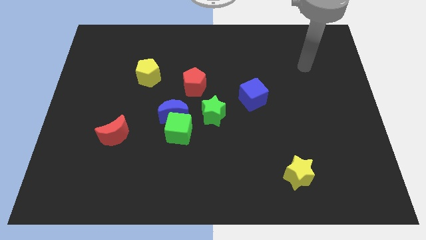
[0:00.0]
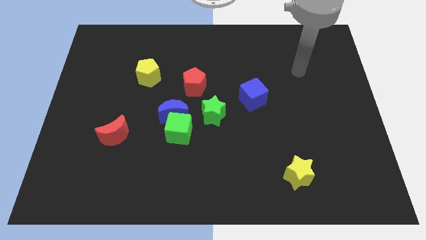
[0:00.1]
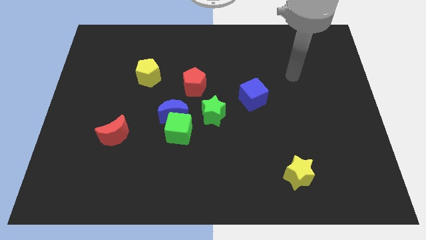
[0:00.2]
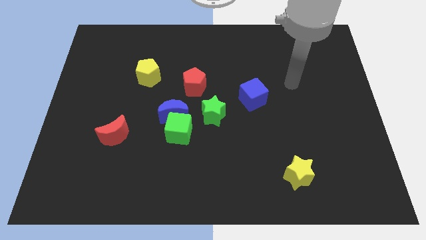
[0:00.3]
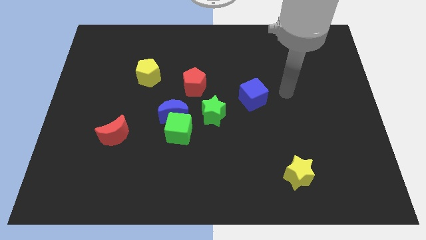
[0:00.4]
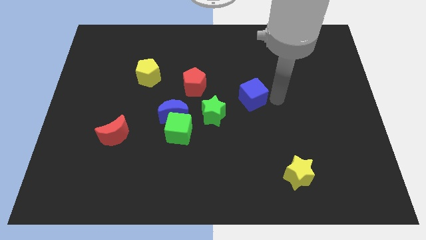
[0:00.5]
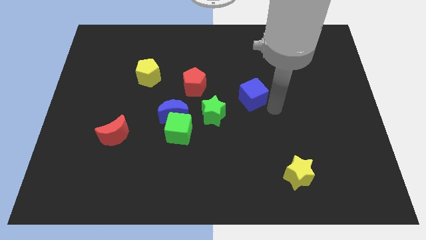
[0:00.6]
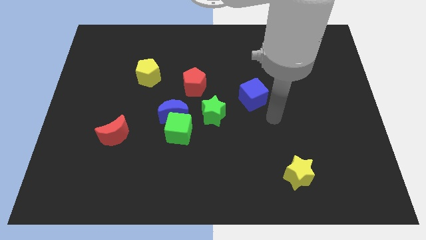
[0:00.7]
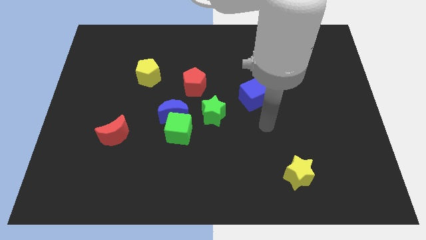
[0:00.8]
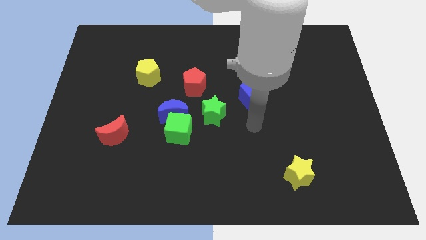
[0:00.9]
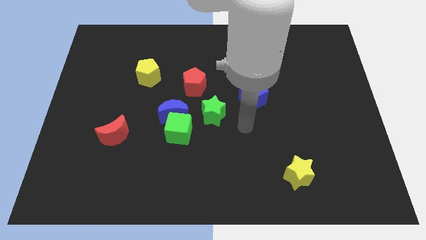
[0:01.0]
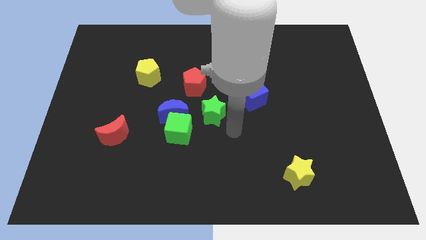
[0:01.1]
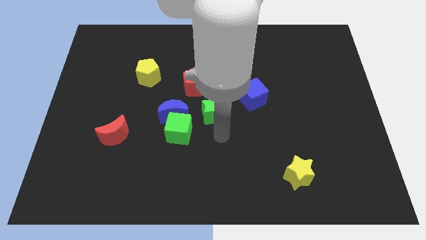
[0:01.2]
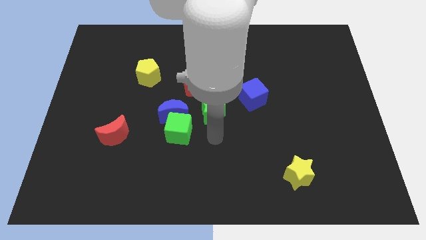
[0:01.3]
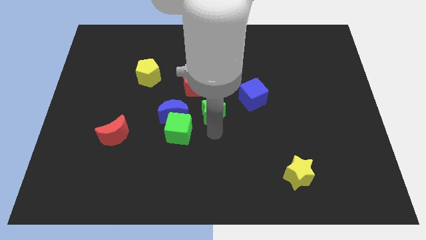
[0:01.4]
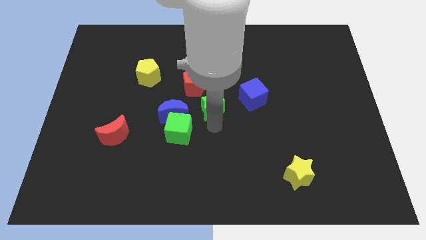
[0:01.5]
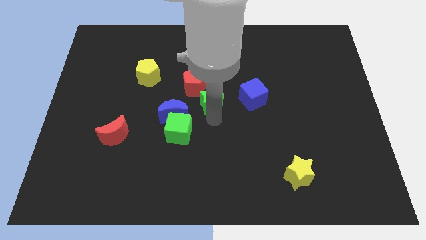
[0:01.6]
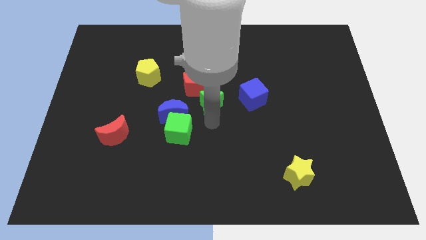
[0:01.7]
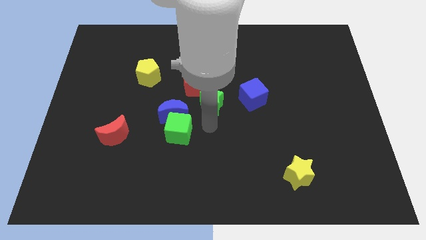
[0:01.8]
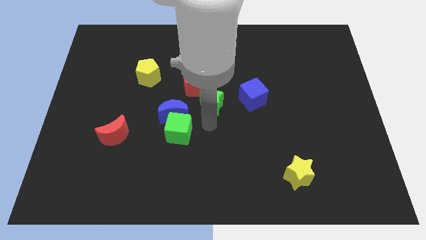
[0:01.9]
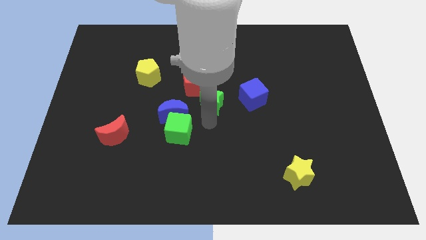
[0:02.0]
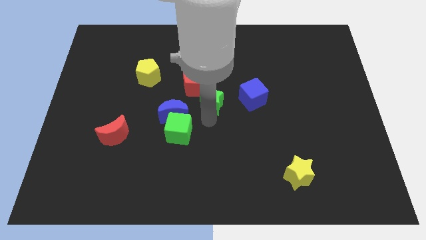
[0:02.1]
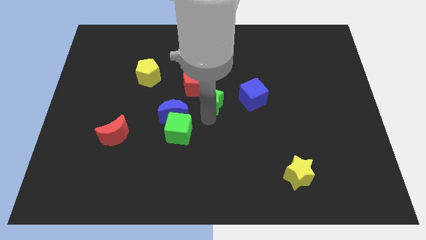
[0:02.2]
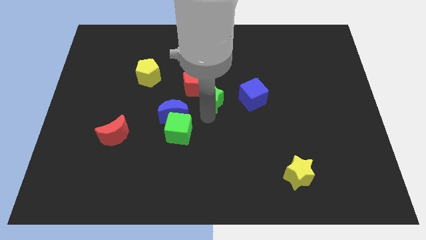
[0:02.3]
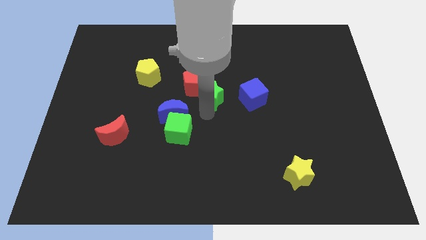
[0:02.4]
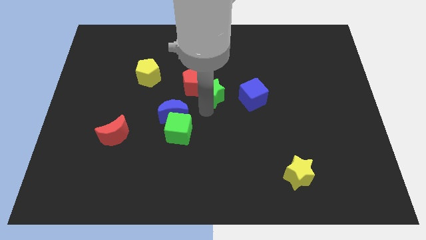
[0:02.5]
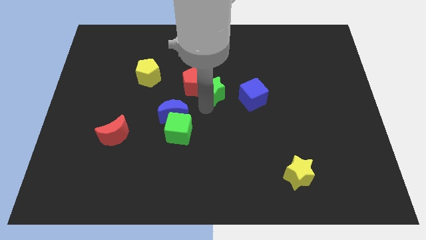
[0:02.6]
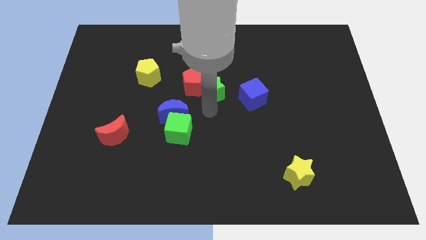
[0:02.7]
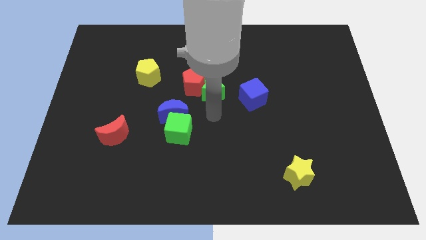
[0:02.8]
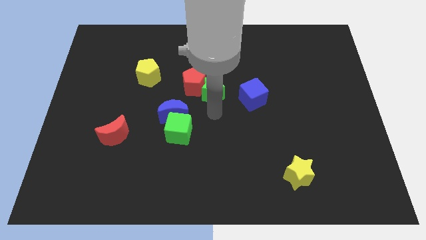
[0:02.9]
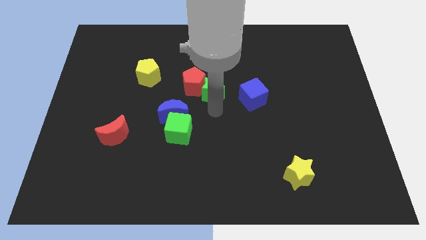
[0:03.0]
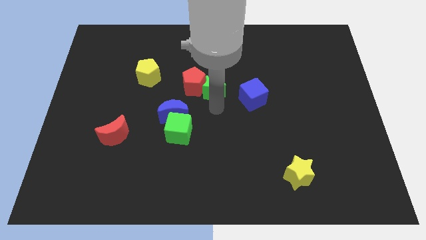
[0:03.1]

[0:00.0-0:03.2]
move the green star upwards a little bit

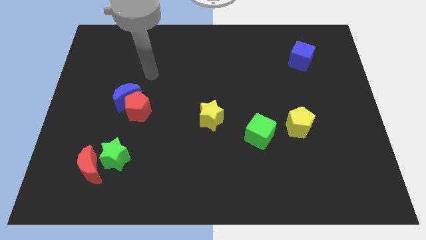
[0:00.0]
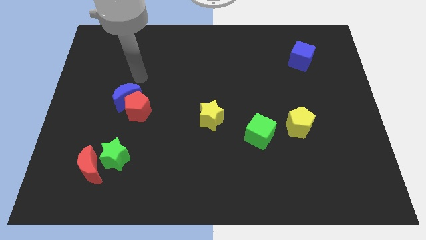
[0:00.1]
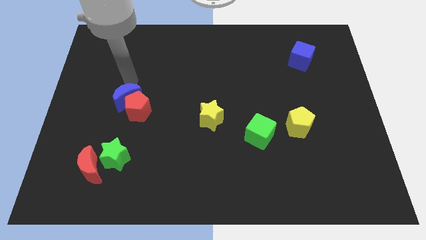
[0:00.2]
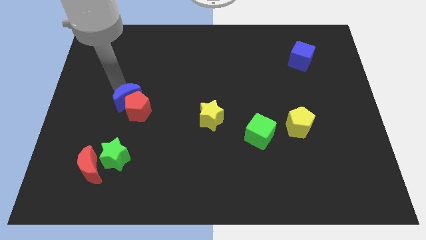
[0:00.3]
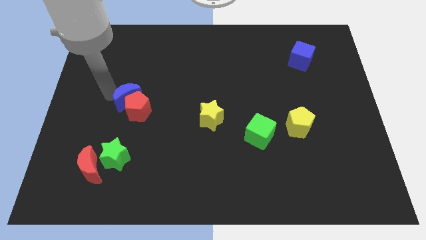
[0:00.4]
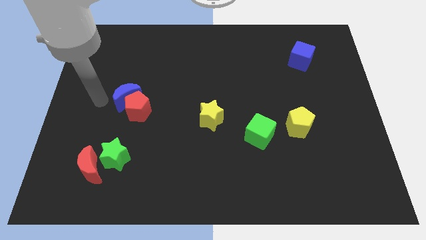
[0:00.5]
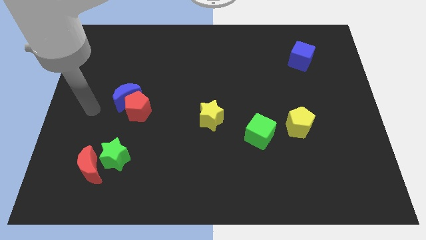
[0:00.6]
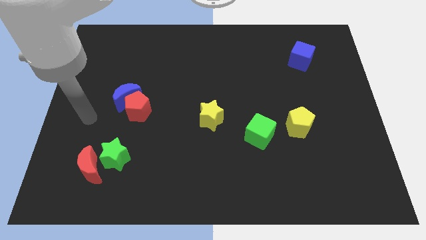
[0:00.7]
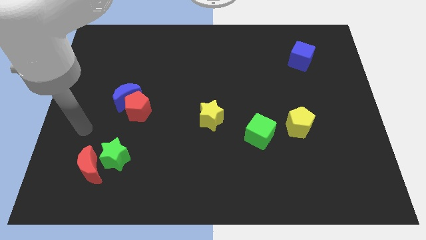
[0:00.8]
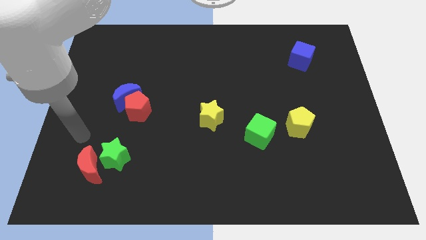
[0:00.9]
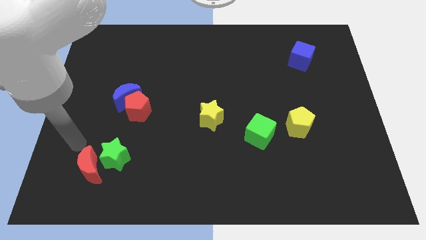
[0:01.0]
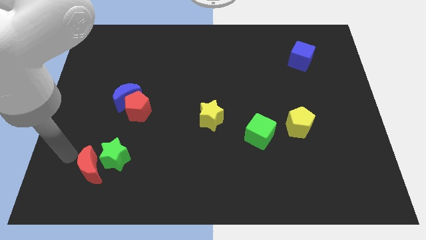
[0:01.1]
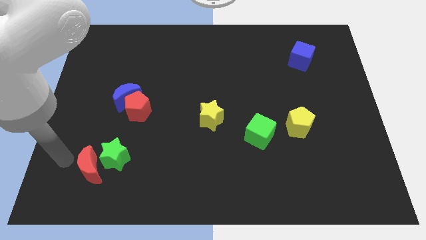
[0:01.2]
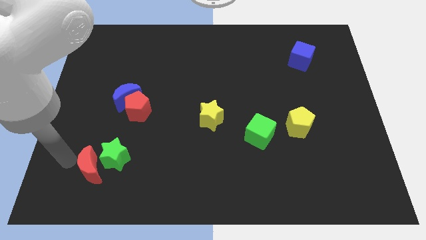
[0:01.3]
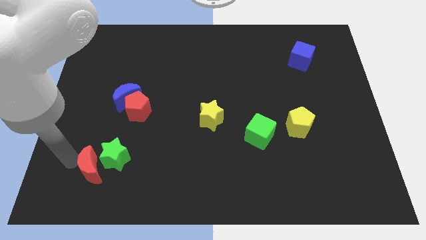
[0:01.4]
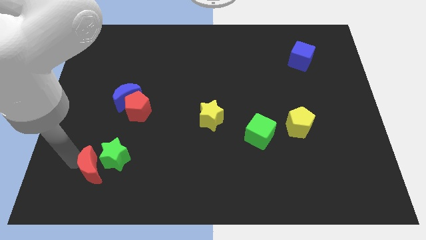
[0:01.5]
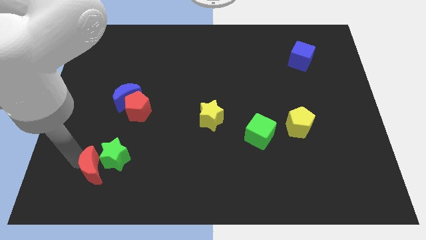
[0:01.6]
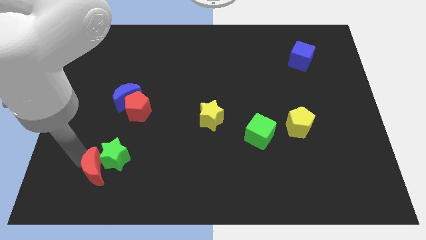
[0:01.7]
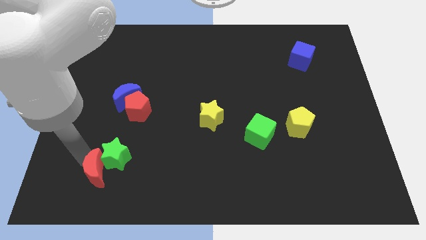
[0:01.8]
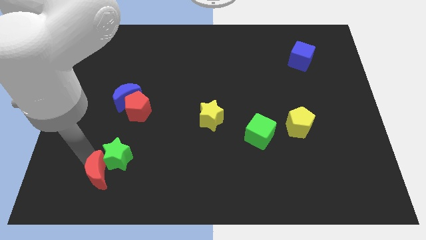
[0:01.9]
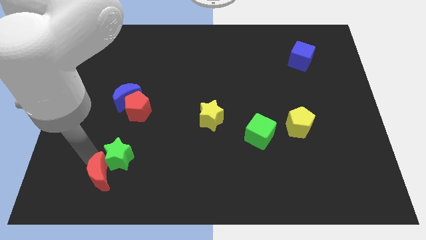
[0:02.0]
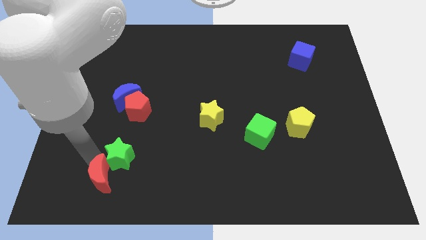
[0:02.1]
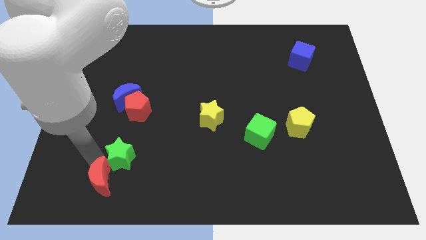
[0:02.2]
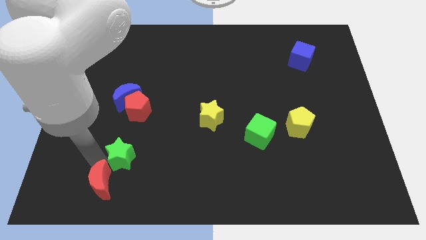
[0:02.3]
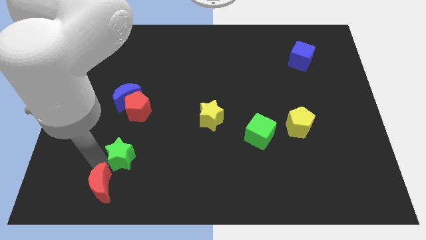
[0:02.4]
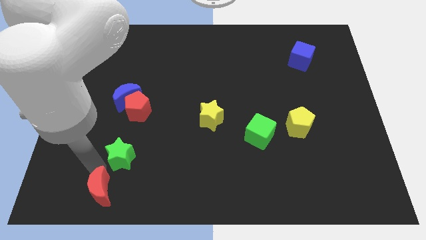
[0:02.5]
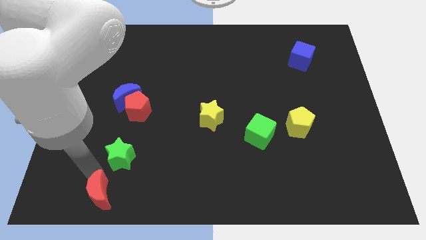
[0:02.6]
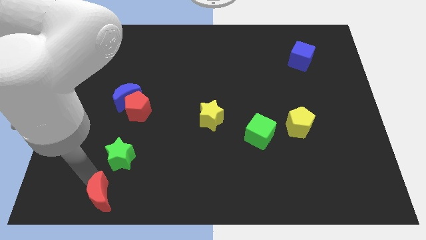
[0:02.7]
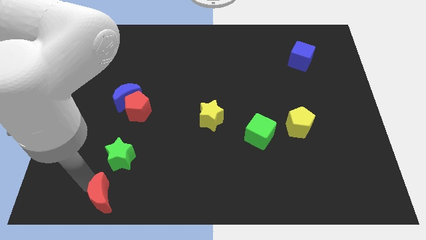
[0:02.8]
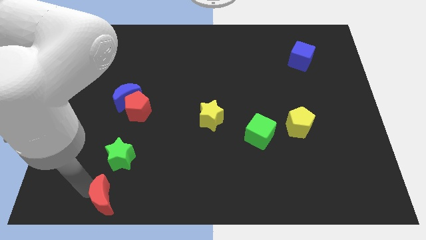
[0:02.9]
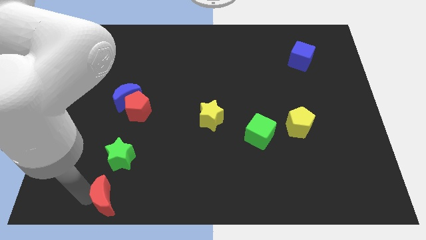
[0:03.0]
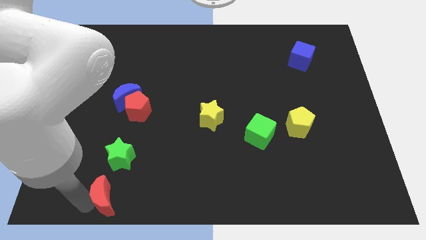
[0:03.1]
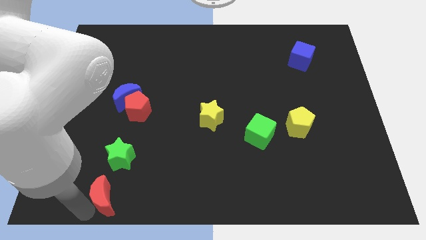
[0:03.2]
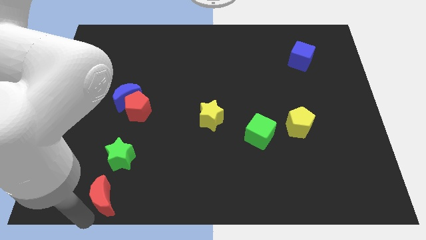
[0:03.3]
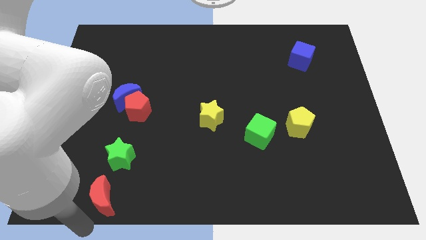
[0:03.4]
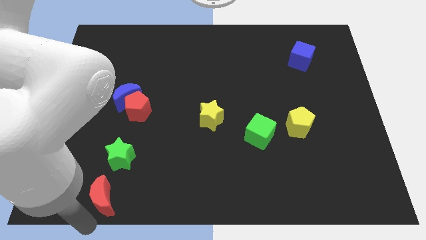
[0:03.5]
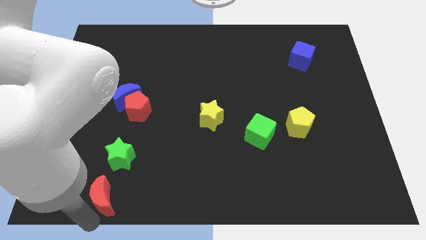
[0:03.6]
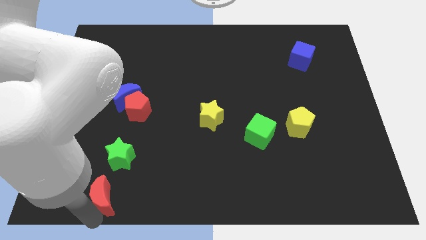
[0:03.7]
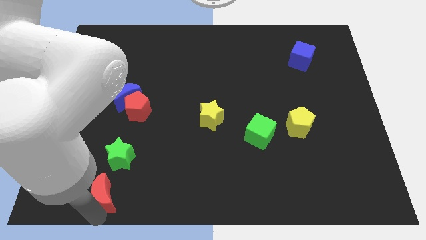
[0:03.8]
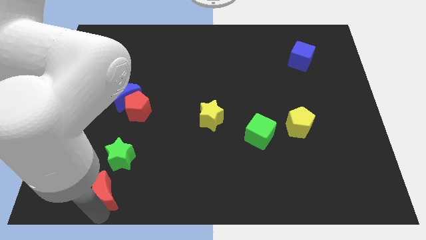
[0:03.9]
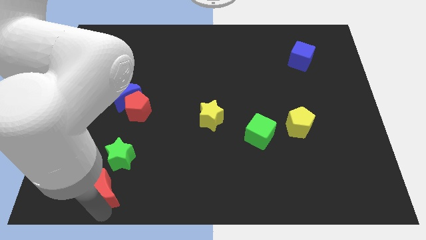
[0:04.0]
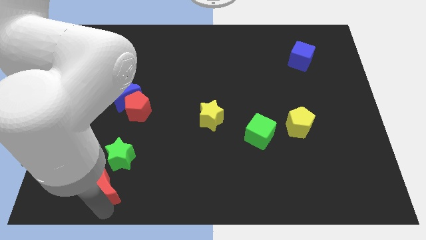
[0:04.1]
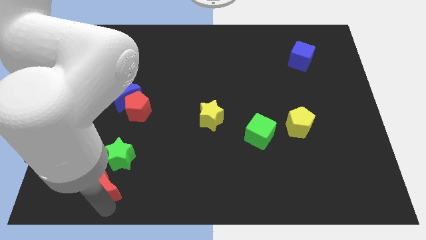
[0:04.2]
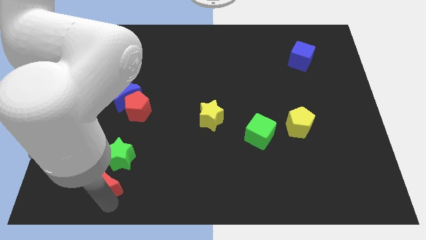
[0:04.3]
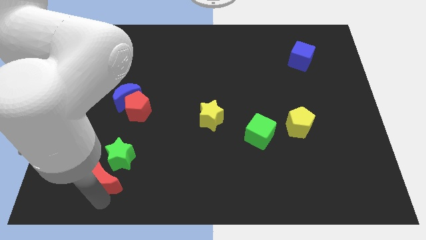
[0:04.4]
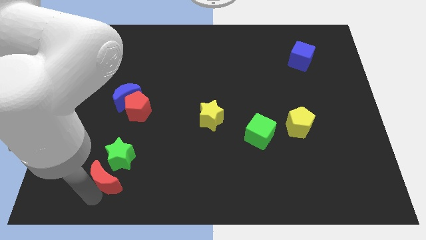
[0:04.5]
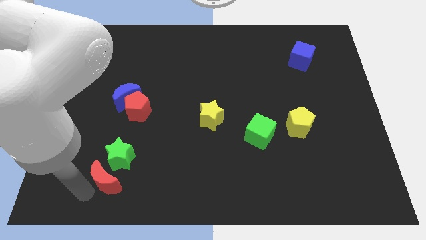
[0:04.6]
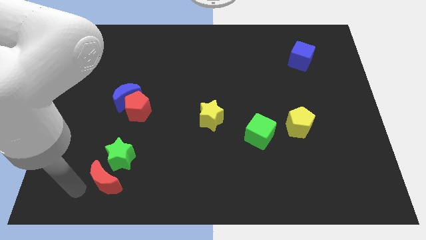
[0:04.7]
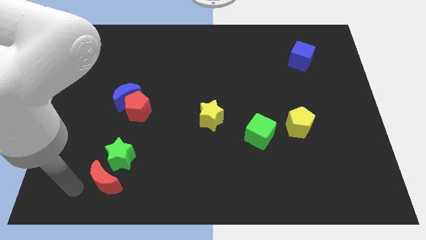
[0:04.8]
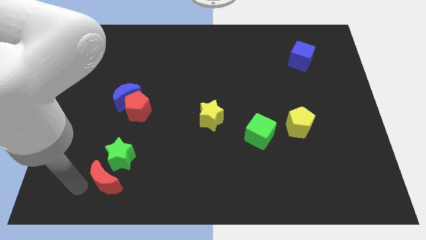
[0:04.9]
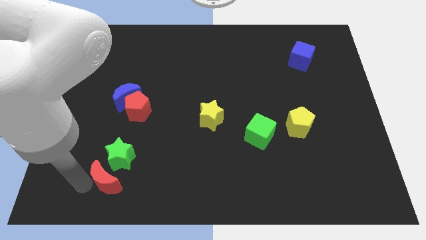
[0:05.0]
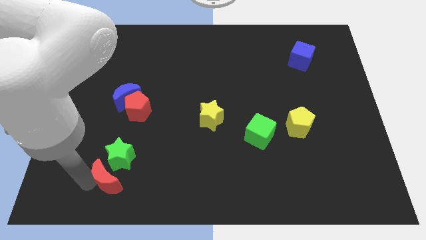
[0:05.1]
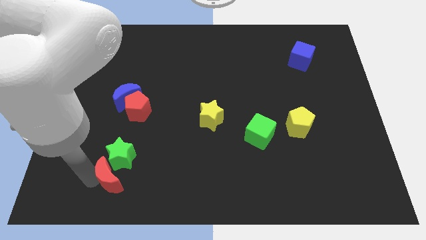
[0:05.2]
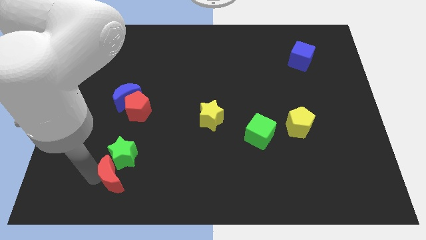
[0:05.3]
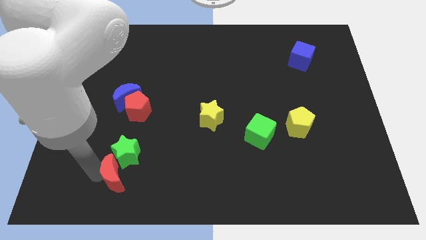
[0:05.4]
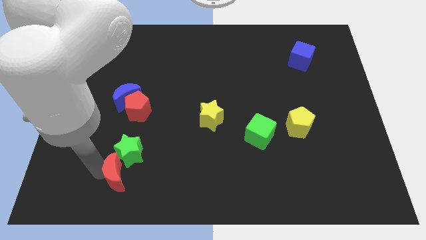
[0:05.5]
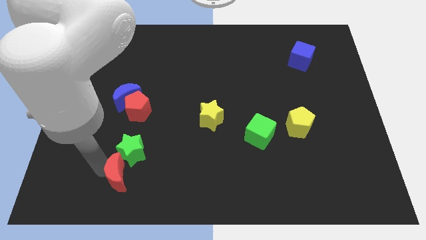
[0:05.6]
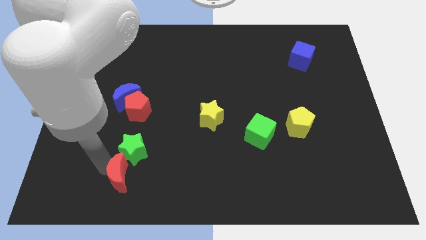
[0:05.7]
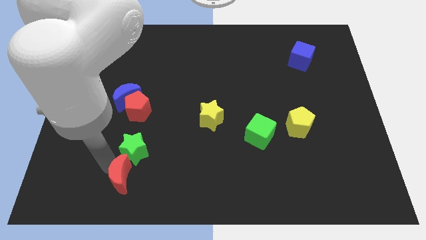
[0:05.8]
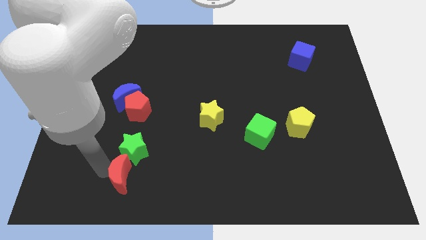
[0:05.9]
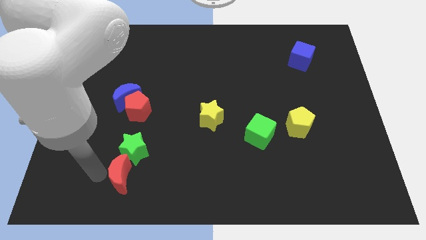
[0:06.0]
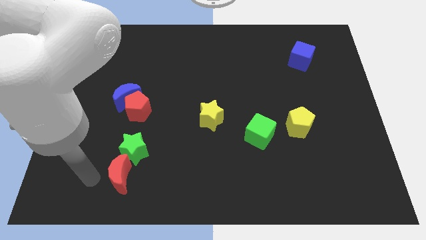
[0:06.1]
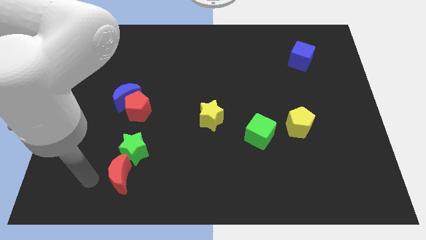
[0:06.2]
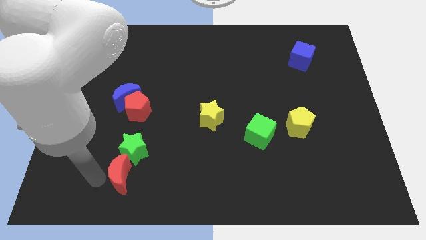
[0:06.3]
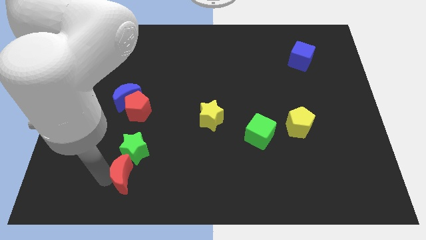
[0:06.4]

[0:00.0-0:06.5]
slightly push the red moon to the right
